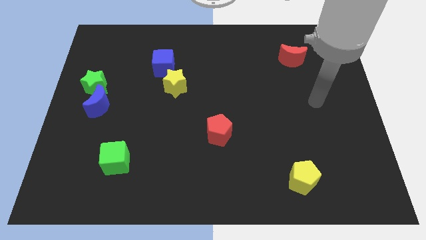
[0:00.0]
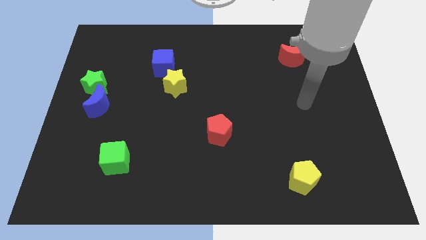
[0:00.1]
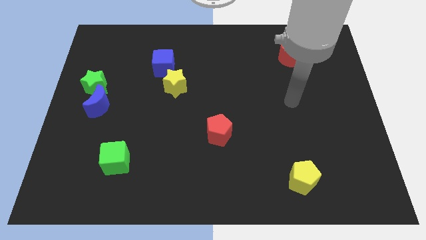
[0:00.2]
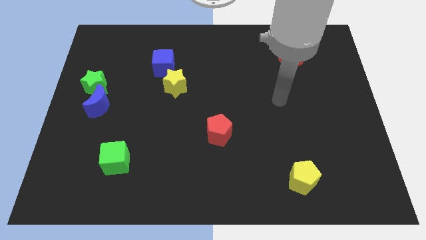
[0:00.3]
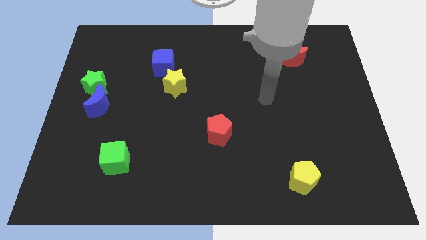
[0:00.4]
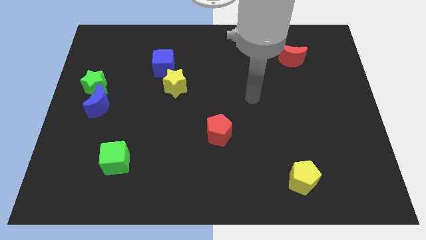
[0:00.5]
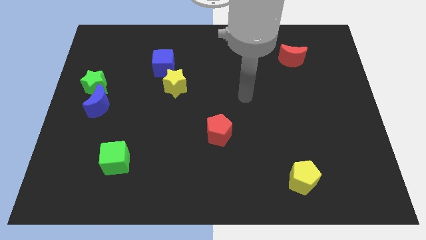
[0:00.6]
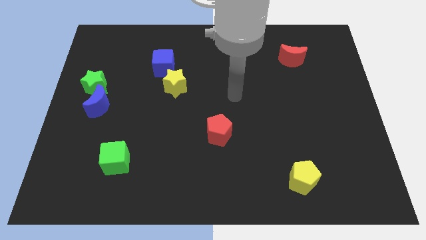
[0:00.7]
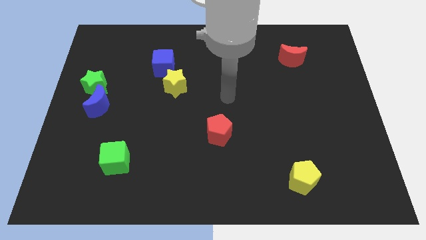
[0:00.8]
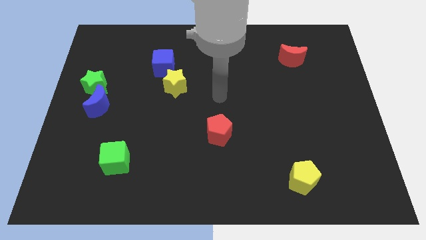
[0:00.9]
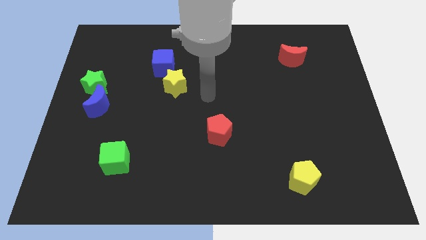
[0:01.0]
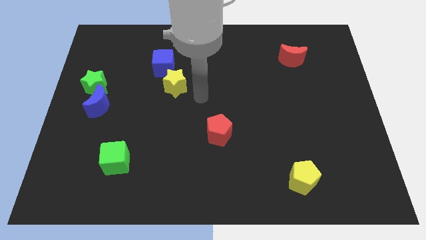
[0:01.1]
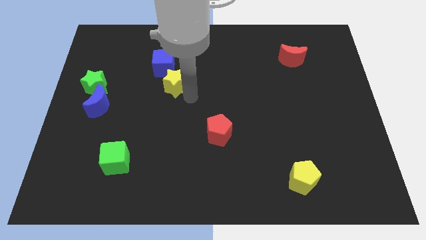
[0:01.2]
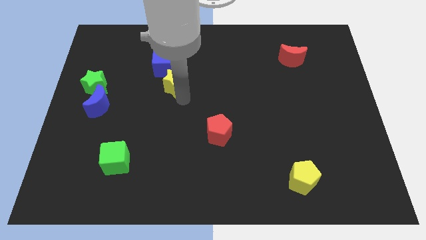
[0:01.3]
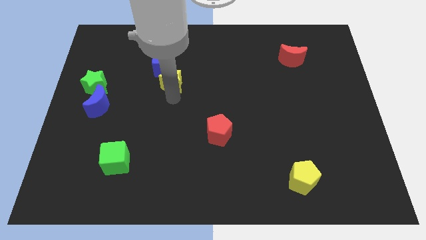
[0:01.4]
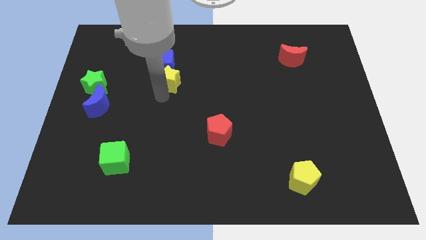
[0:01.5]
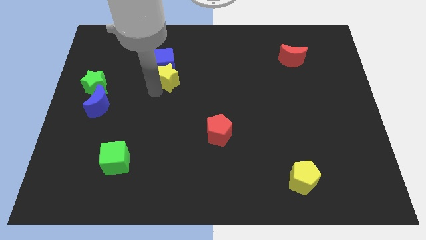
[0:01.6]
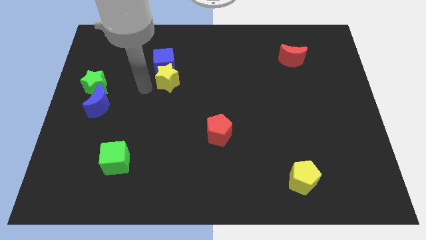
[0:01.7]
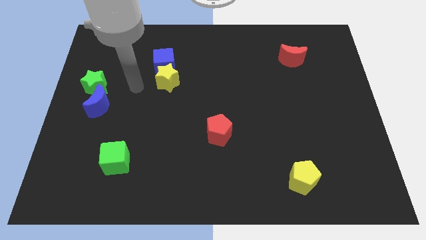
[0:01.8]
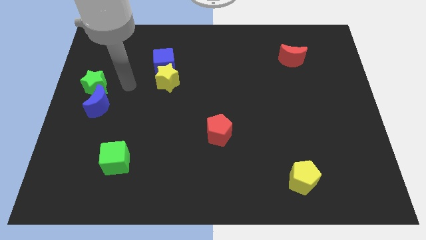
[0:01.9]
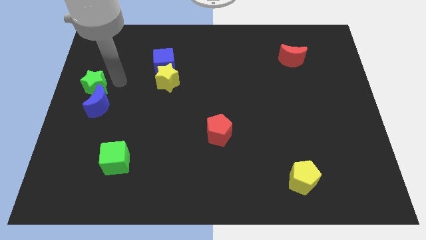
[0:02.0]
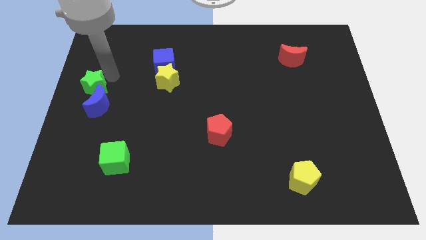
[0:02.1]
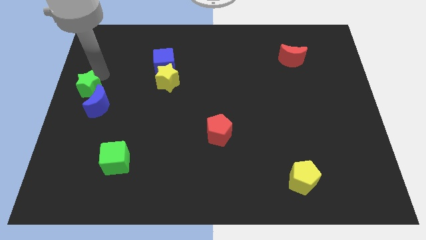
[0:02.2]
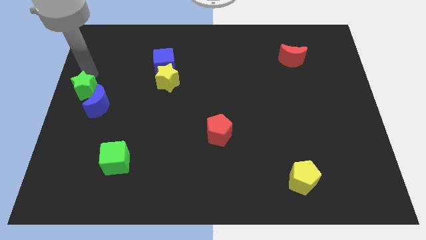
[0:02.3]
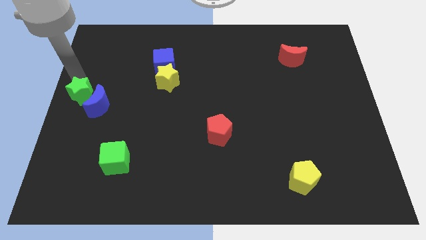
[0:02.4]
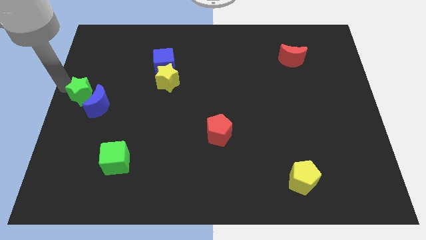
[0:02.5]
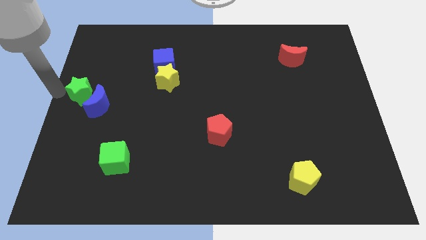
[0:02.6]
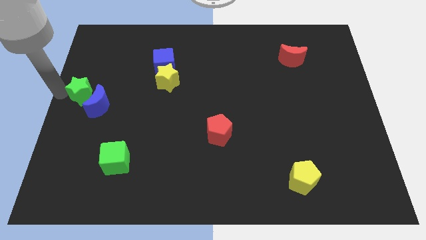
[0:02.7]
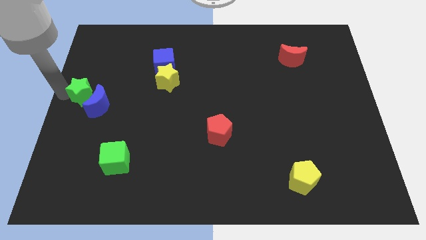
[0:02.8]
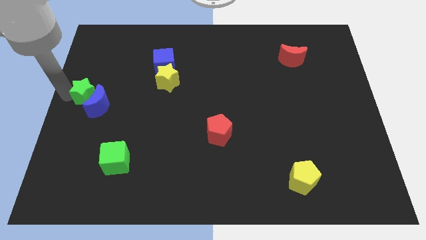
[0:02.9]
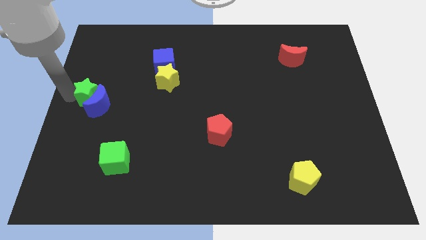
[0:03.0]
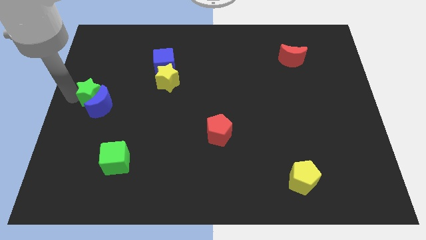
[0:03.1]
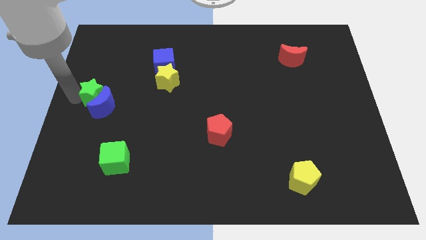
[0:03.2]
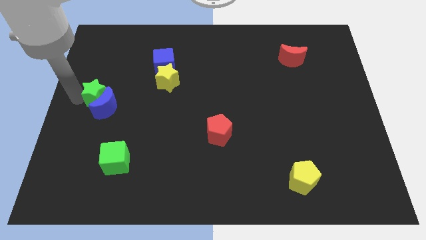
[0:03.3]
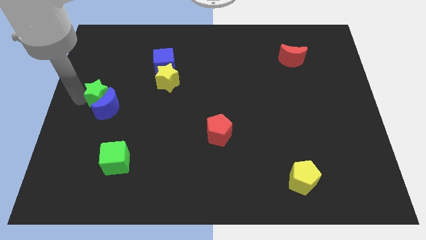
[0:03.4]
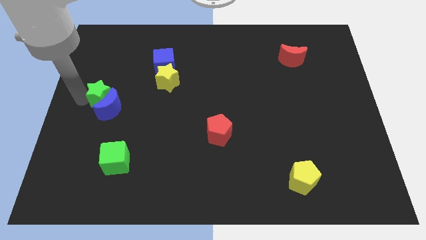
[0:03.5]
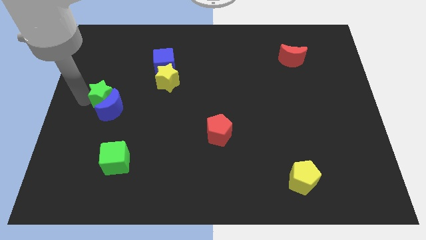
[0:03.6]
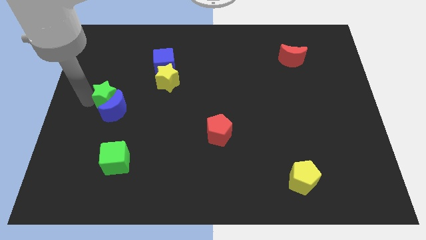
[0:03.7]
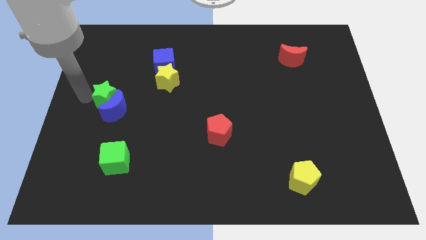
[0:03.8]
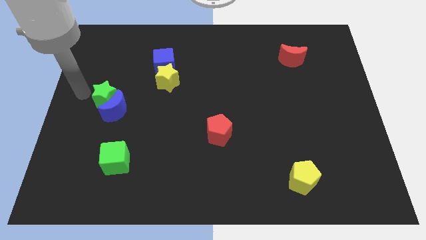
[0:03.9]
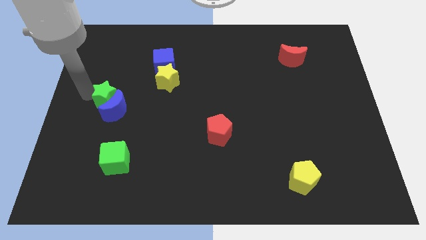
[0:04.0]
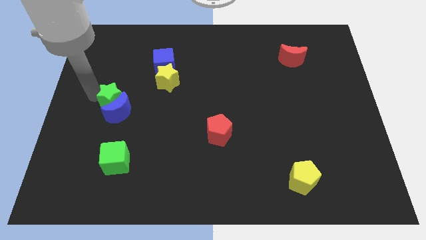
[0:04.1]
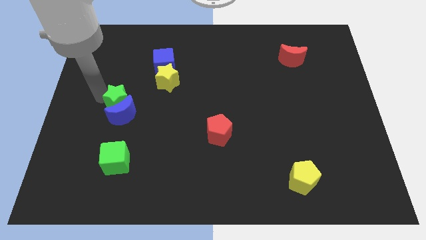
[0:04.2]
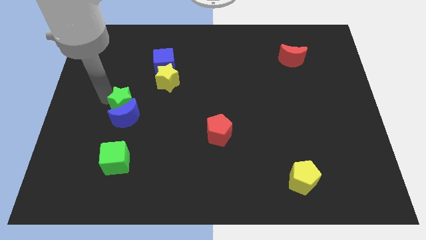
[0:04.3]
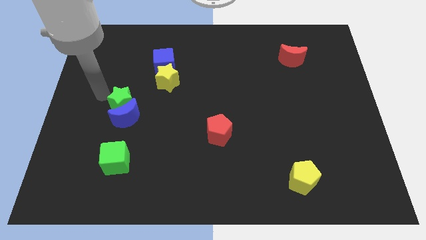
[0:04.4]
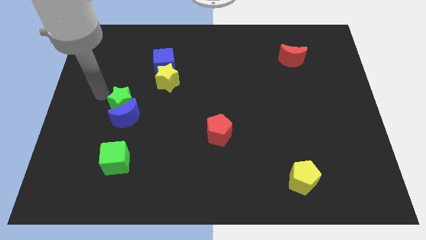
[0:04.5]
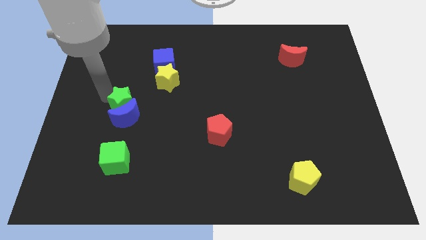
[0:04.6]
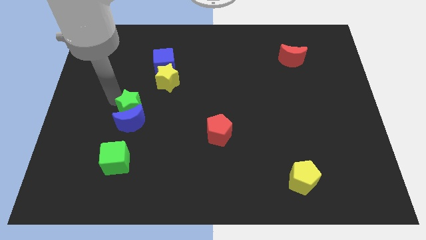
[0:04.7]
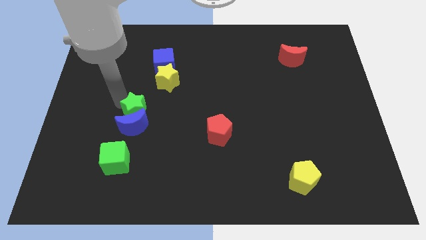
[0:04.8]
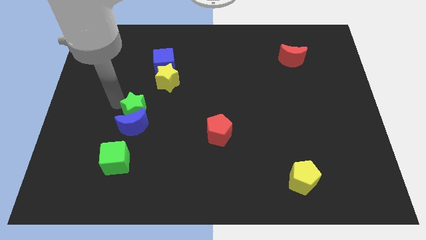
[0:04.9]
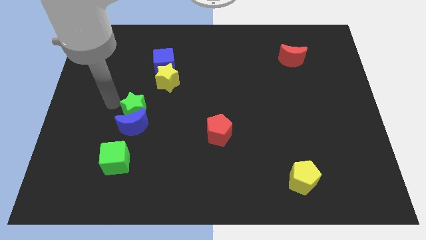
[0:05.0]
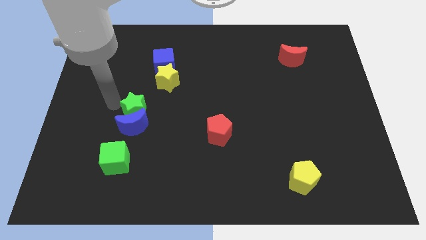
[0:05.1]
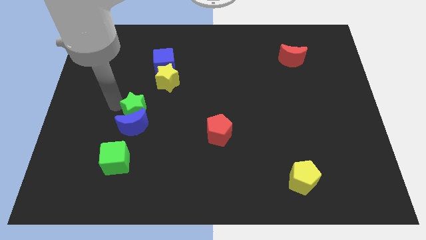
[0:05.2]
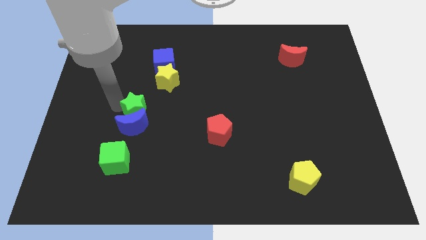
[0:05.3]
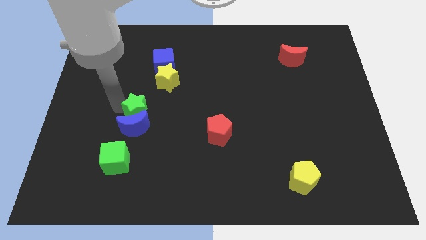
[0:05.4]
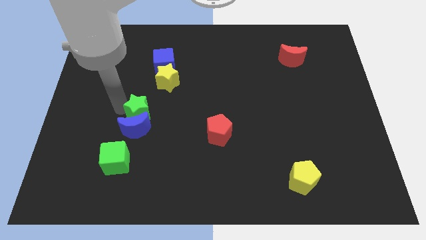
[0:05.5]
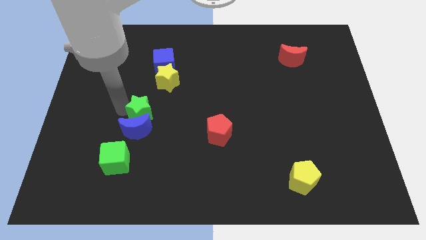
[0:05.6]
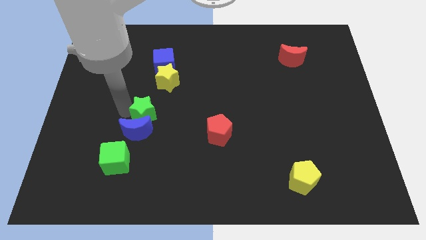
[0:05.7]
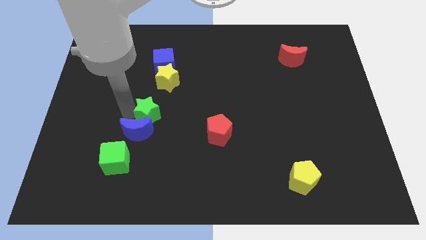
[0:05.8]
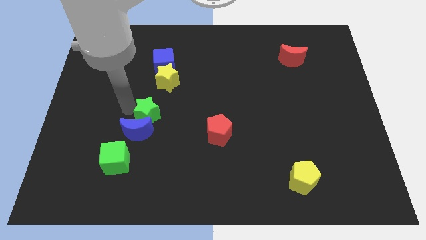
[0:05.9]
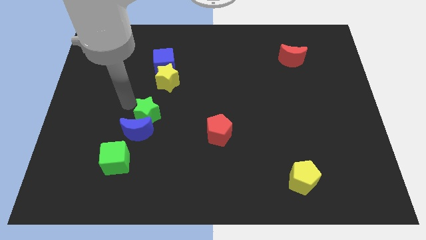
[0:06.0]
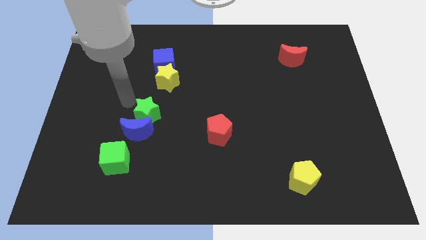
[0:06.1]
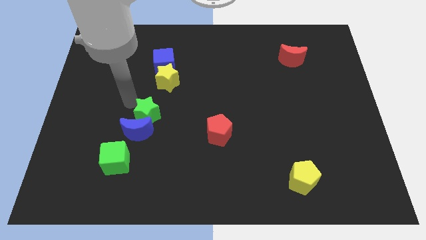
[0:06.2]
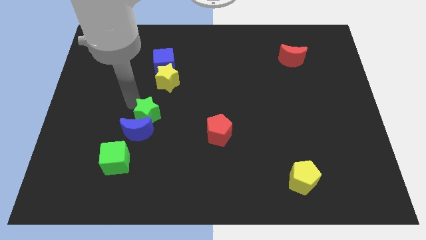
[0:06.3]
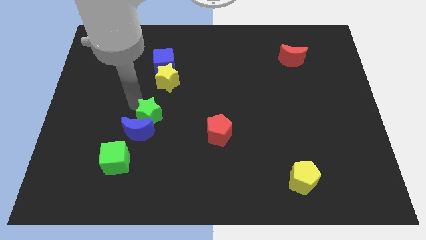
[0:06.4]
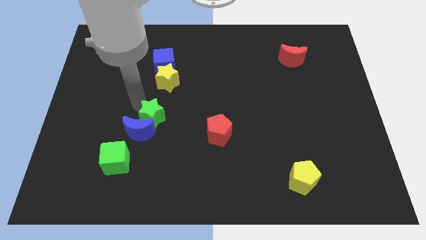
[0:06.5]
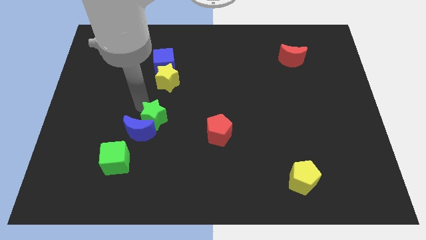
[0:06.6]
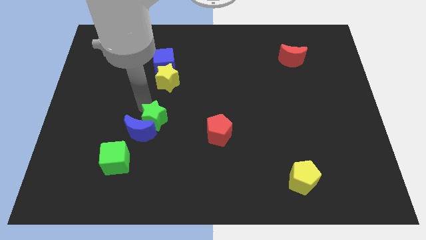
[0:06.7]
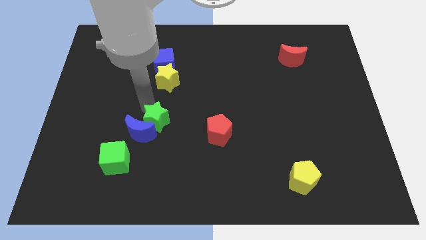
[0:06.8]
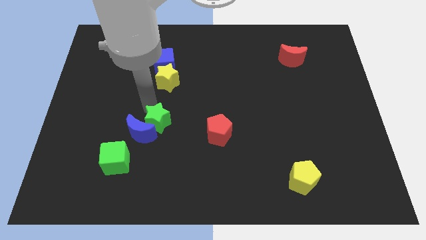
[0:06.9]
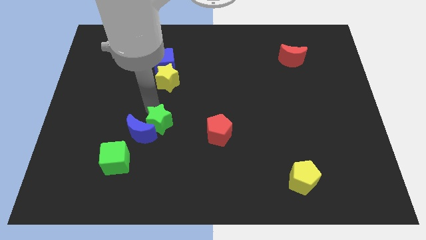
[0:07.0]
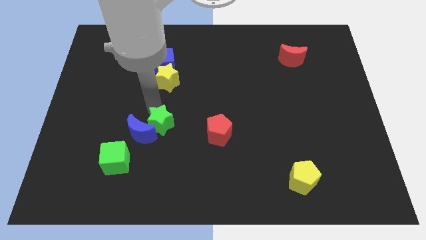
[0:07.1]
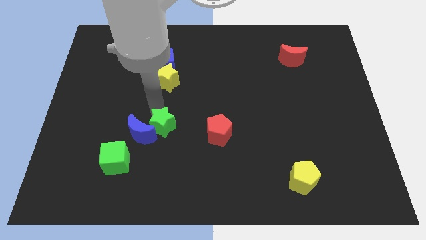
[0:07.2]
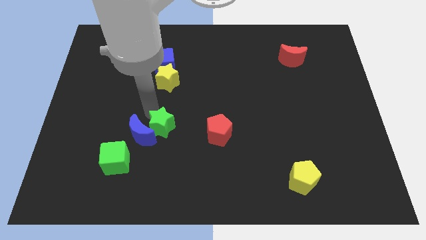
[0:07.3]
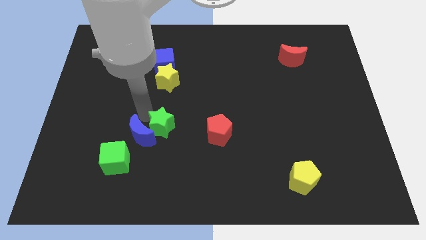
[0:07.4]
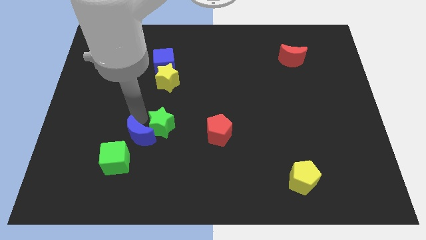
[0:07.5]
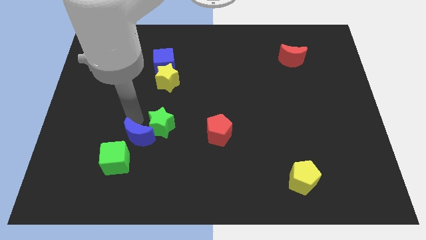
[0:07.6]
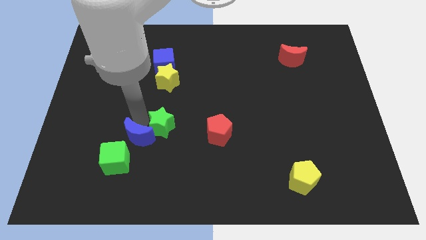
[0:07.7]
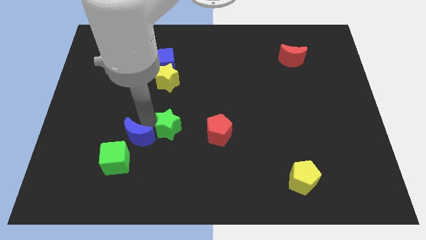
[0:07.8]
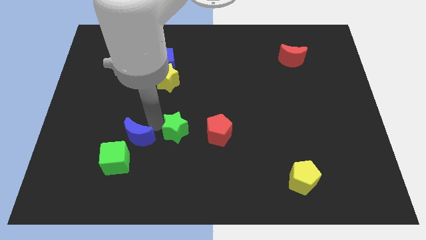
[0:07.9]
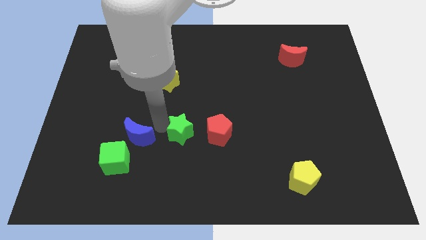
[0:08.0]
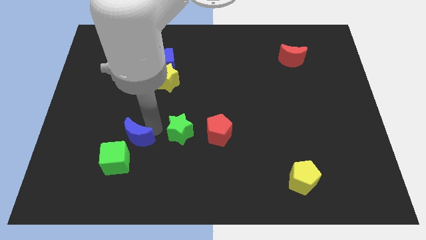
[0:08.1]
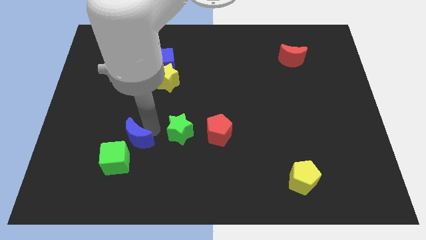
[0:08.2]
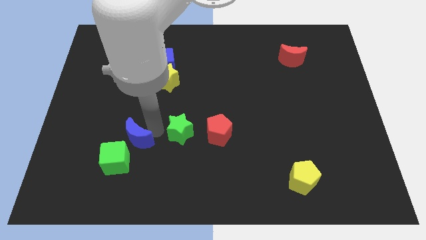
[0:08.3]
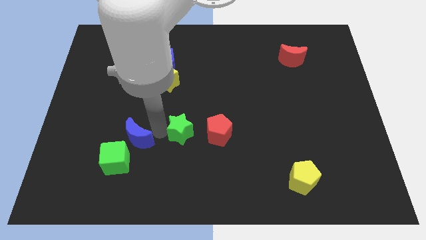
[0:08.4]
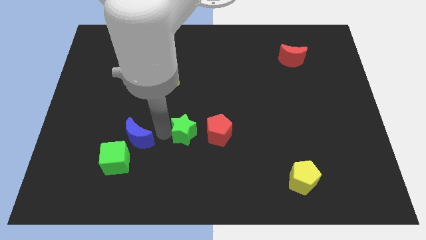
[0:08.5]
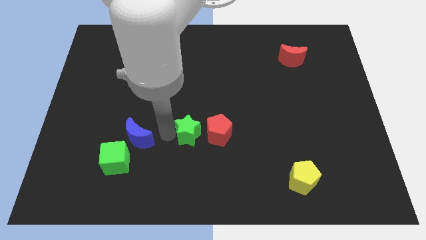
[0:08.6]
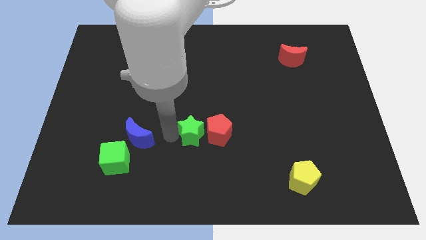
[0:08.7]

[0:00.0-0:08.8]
put the green star to the red pentagon
